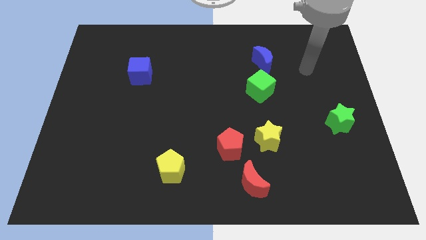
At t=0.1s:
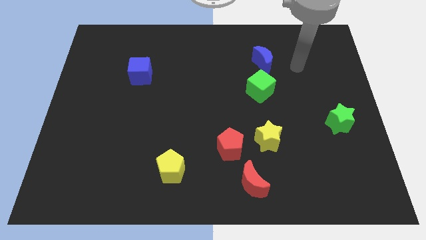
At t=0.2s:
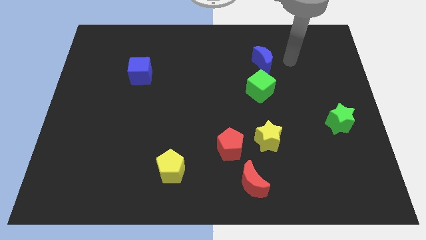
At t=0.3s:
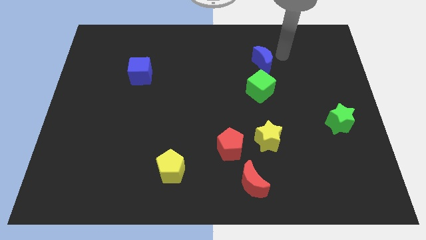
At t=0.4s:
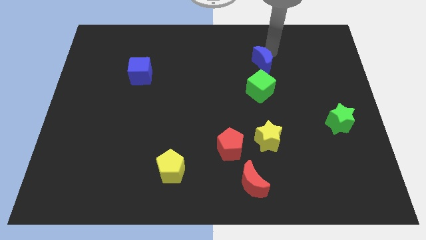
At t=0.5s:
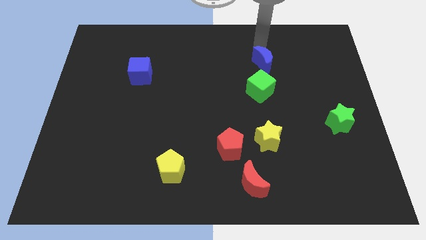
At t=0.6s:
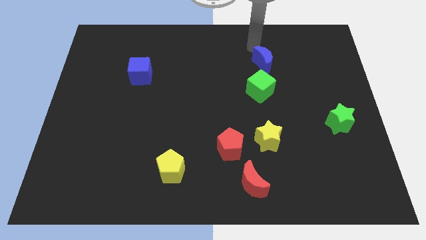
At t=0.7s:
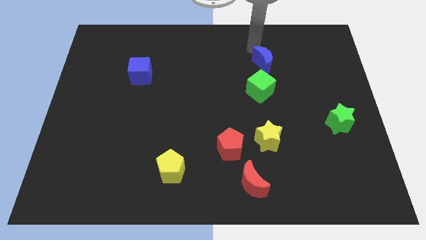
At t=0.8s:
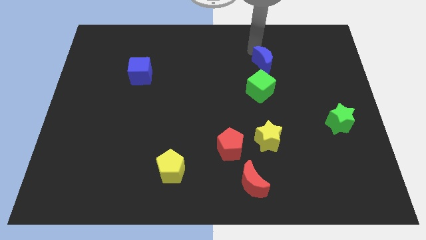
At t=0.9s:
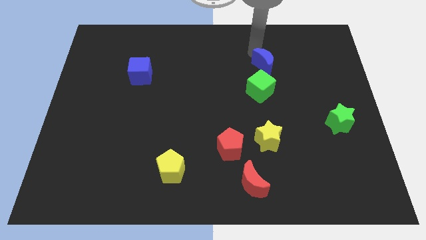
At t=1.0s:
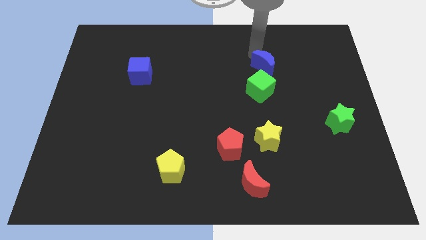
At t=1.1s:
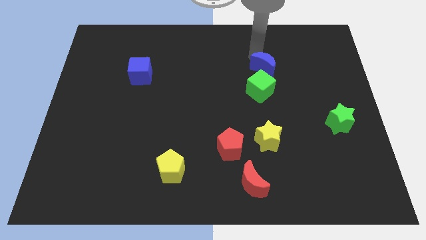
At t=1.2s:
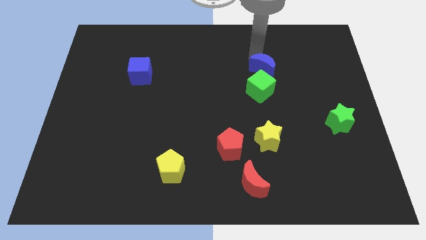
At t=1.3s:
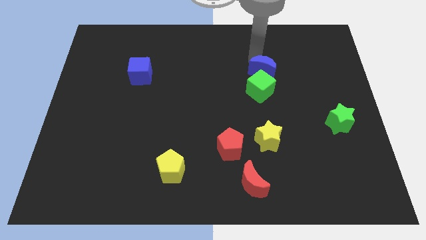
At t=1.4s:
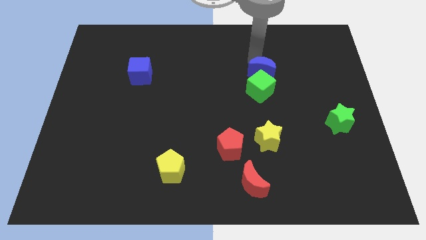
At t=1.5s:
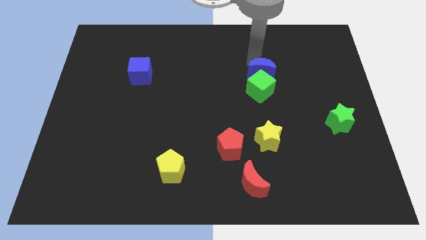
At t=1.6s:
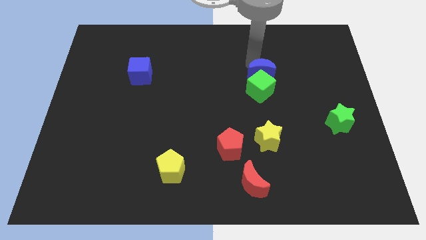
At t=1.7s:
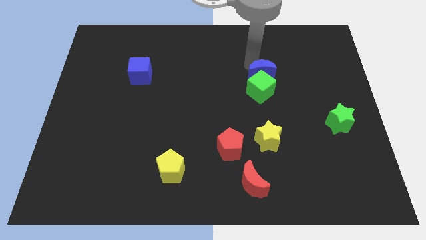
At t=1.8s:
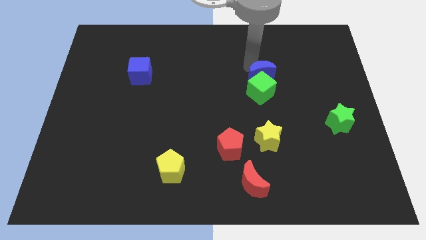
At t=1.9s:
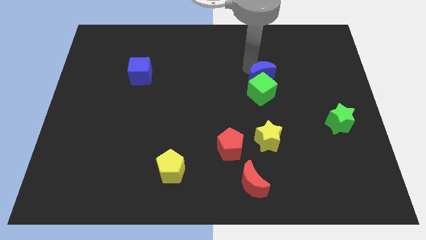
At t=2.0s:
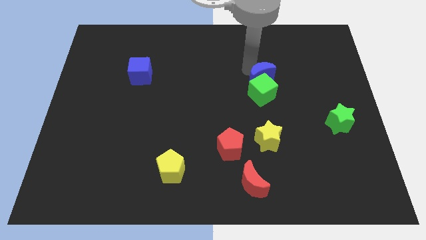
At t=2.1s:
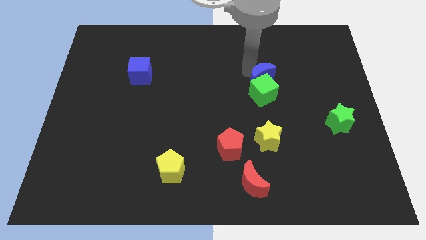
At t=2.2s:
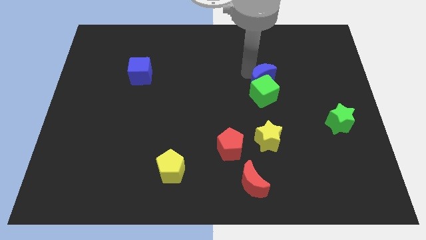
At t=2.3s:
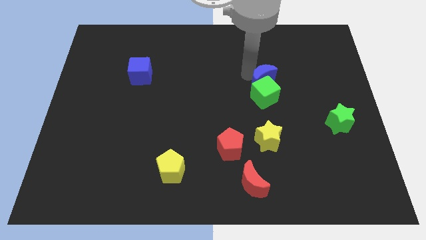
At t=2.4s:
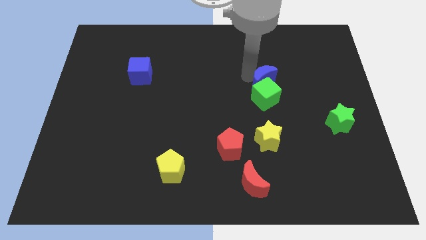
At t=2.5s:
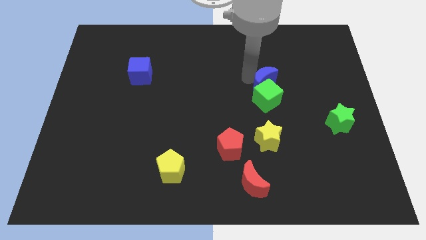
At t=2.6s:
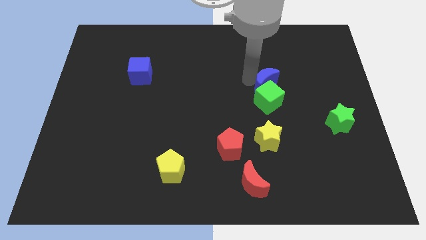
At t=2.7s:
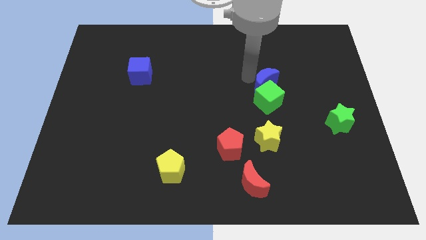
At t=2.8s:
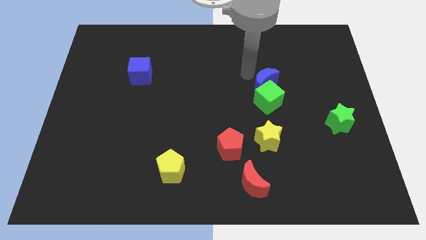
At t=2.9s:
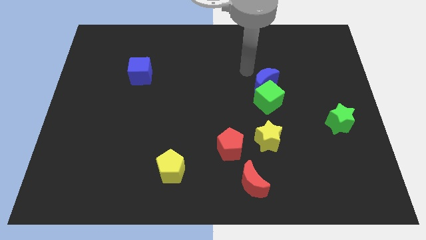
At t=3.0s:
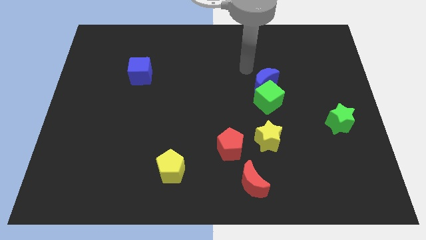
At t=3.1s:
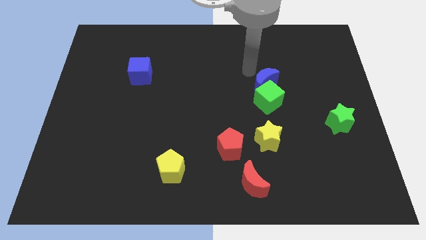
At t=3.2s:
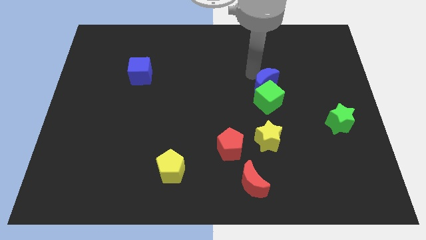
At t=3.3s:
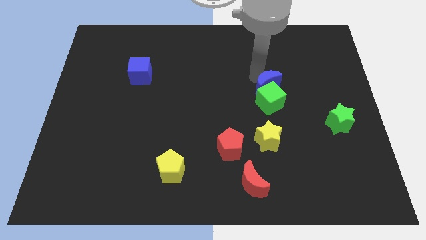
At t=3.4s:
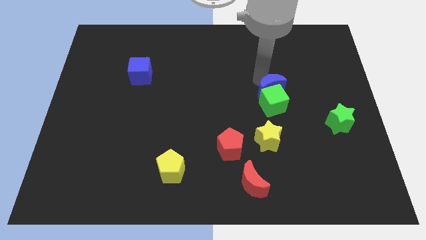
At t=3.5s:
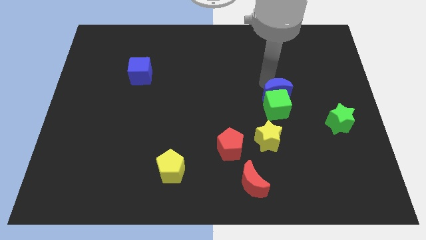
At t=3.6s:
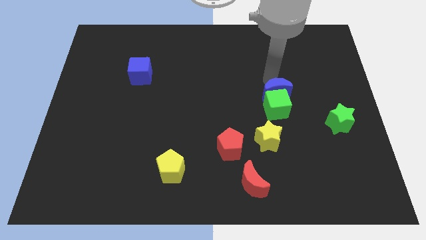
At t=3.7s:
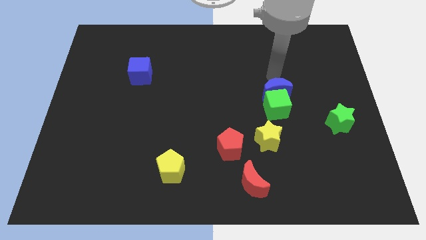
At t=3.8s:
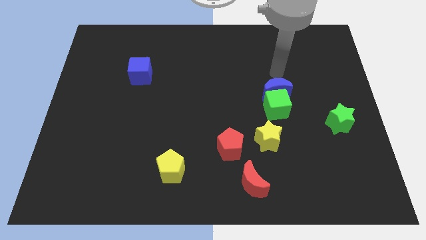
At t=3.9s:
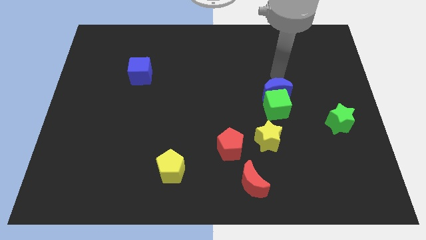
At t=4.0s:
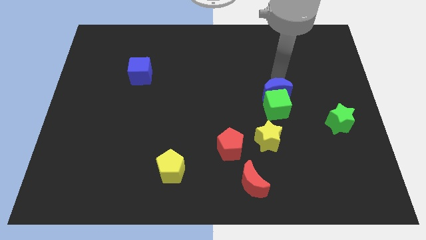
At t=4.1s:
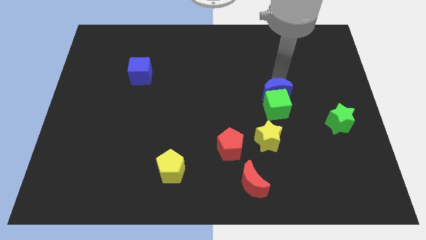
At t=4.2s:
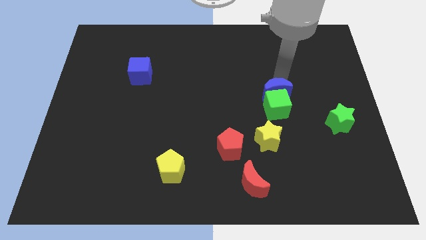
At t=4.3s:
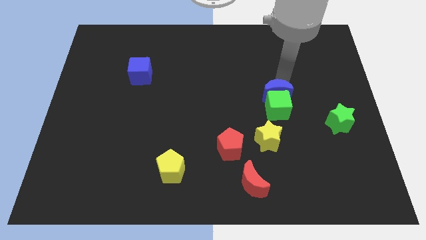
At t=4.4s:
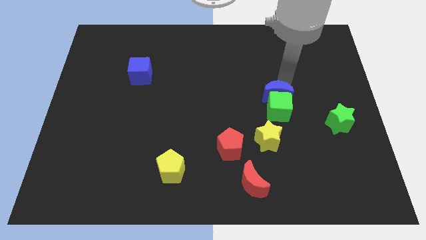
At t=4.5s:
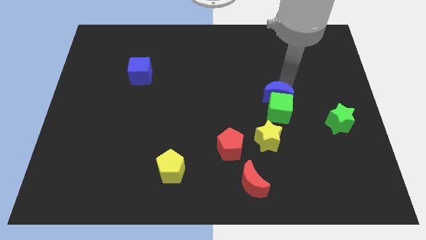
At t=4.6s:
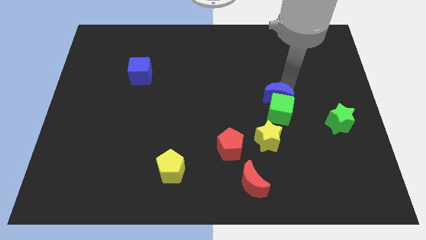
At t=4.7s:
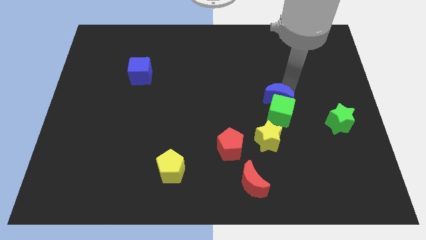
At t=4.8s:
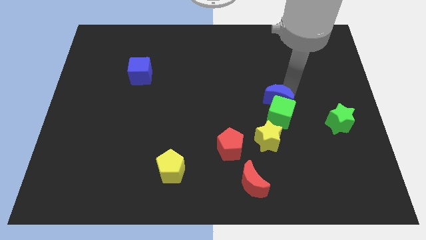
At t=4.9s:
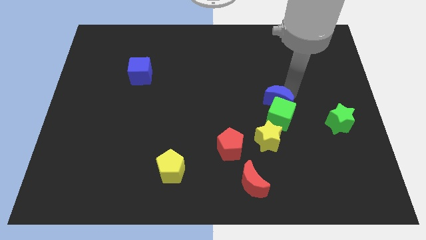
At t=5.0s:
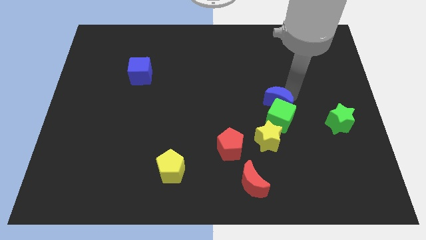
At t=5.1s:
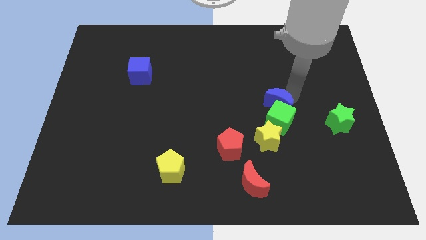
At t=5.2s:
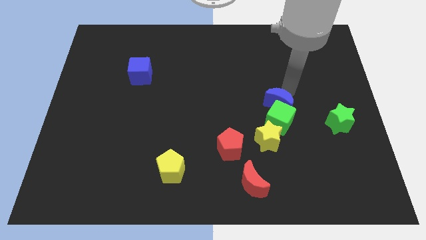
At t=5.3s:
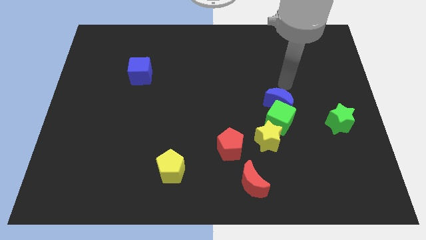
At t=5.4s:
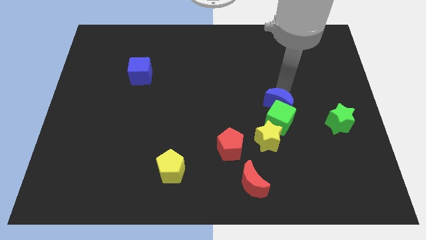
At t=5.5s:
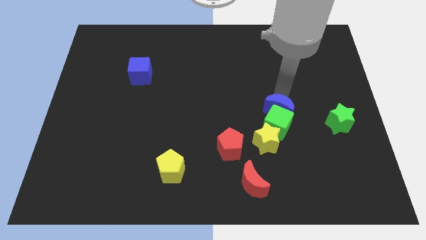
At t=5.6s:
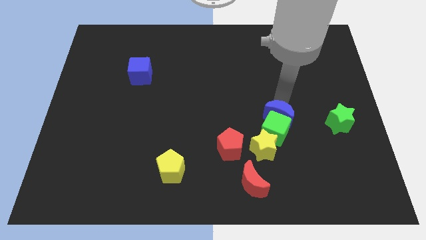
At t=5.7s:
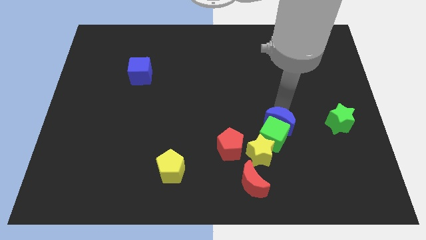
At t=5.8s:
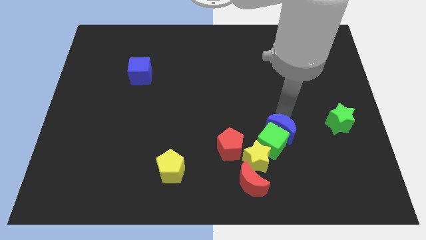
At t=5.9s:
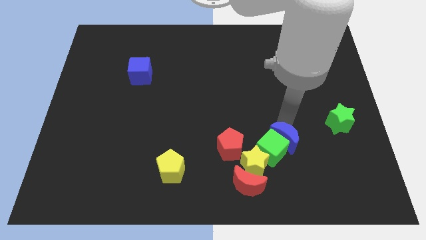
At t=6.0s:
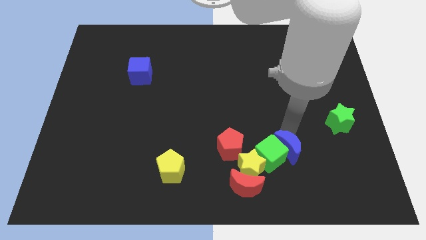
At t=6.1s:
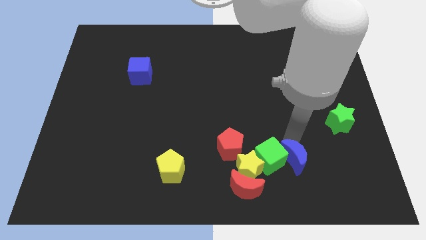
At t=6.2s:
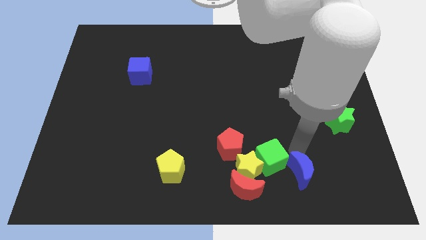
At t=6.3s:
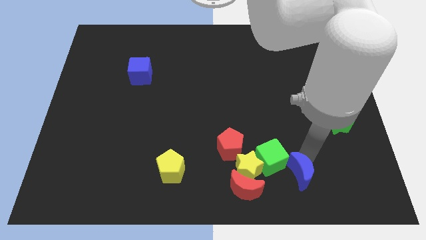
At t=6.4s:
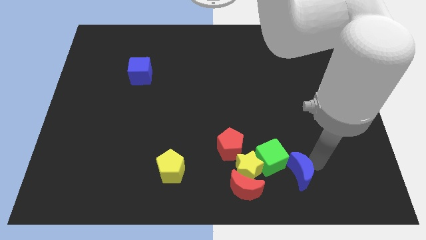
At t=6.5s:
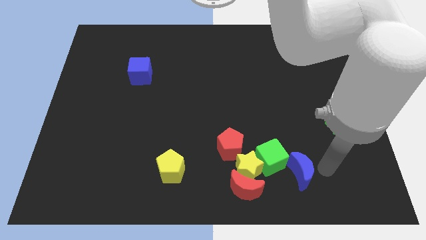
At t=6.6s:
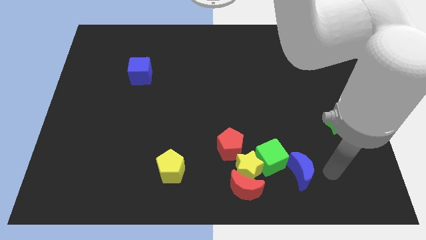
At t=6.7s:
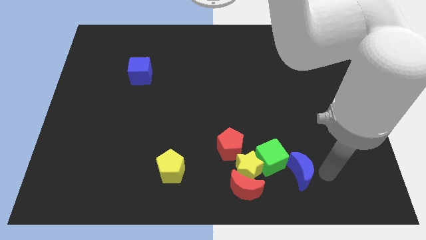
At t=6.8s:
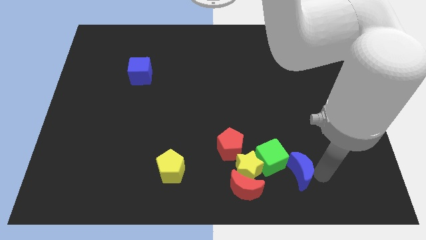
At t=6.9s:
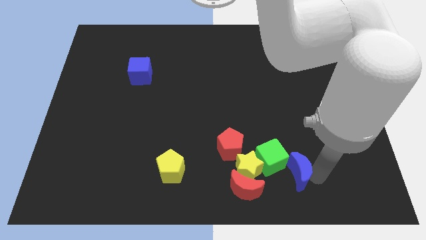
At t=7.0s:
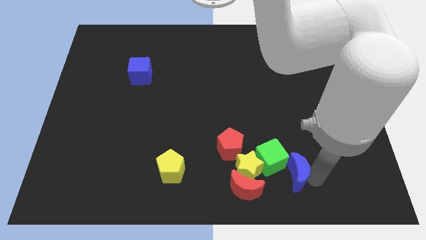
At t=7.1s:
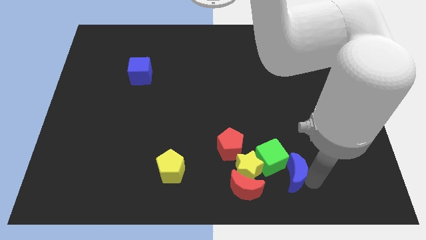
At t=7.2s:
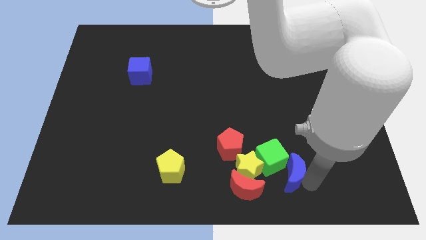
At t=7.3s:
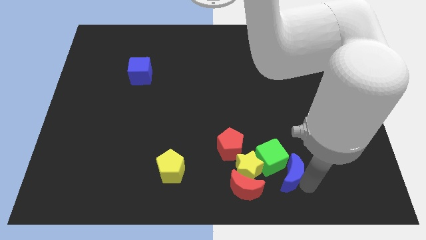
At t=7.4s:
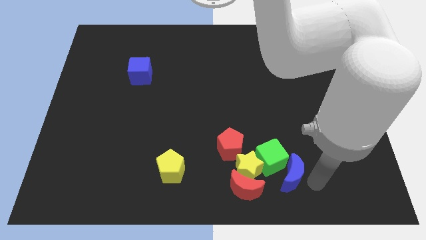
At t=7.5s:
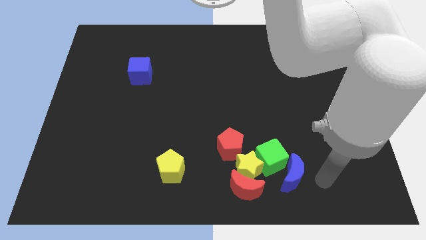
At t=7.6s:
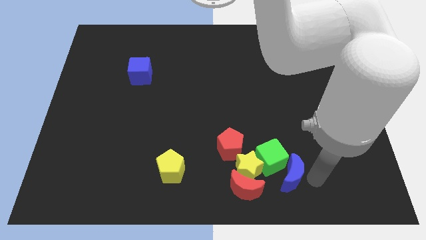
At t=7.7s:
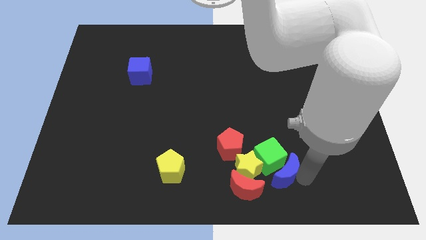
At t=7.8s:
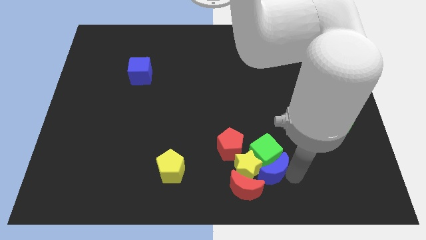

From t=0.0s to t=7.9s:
move the blue moon next to the yellow star
